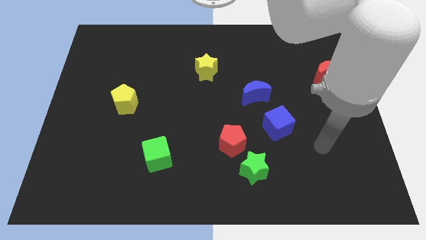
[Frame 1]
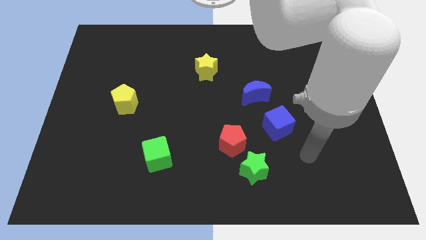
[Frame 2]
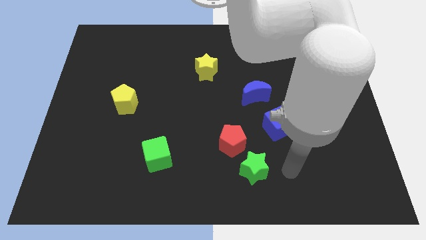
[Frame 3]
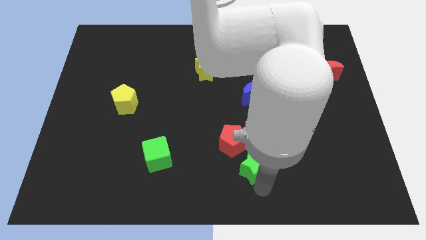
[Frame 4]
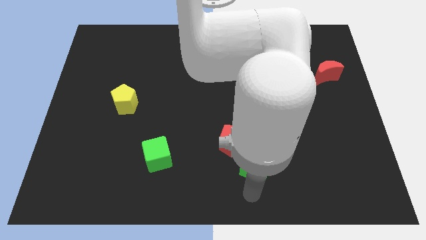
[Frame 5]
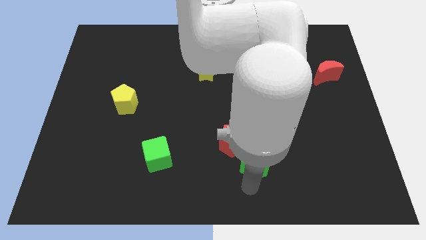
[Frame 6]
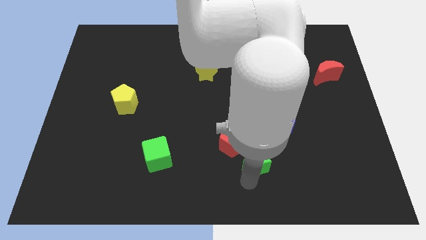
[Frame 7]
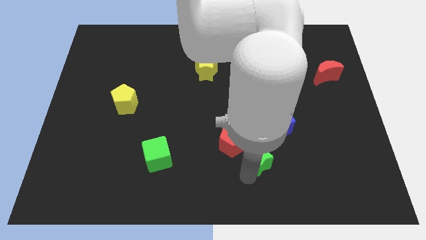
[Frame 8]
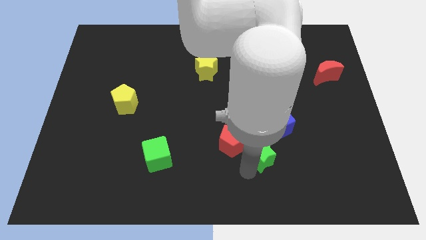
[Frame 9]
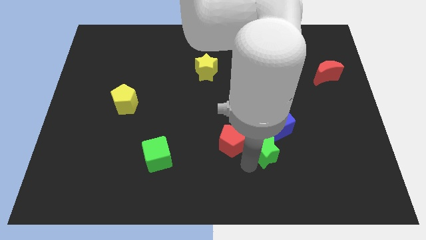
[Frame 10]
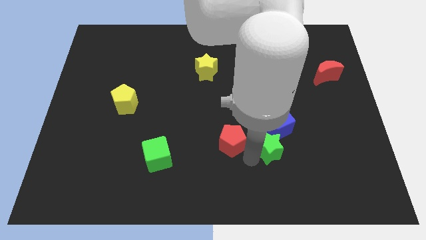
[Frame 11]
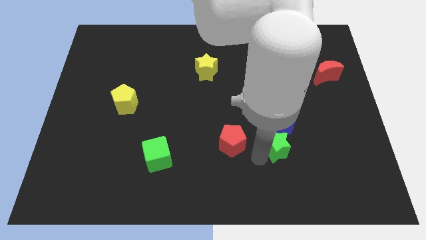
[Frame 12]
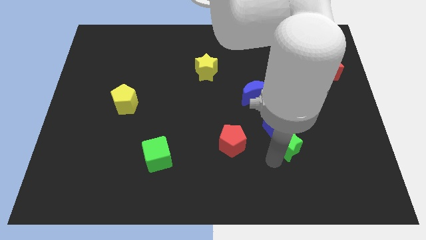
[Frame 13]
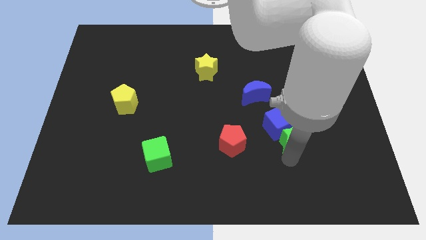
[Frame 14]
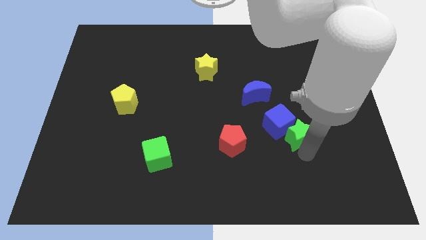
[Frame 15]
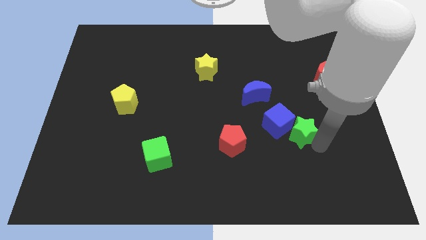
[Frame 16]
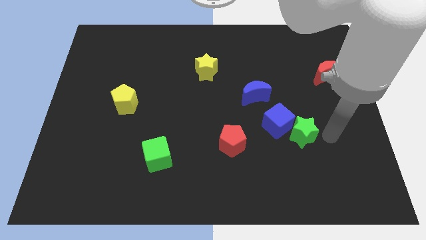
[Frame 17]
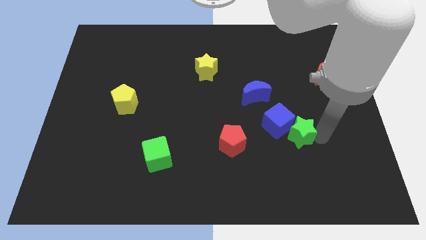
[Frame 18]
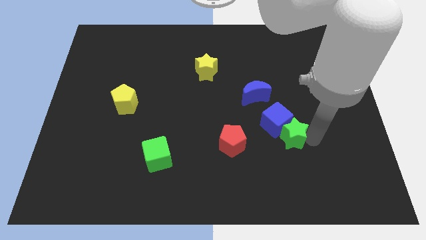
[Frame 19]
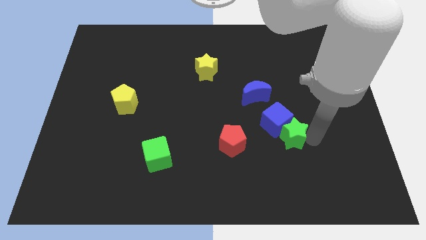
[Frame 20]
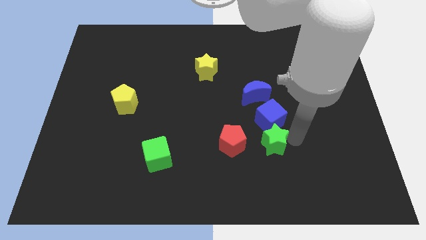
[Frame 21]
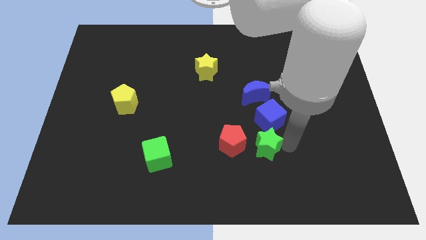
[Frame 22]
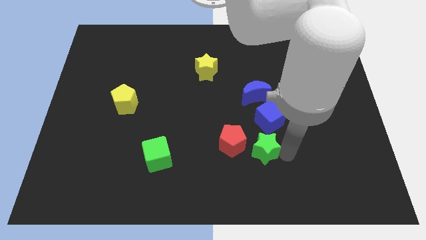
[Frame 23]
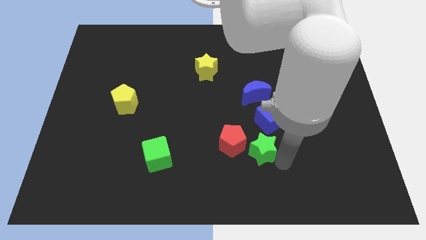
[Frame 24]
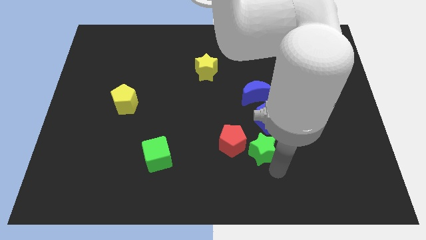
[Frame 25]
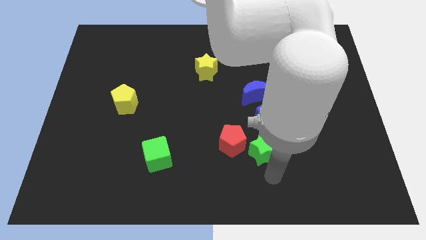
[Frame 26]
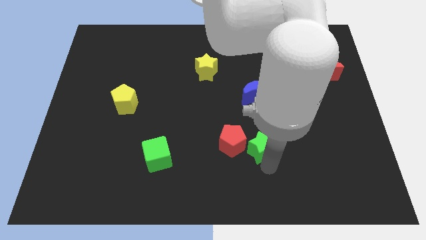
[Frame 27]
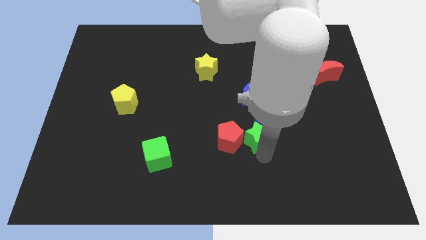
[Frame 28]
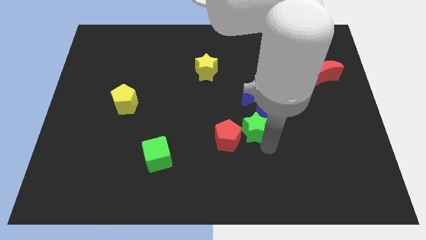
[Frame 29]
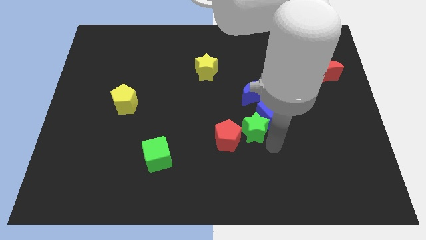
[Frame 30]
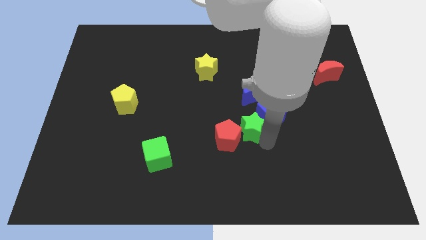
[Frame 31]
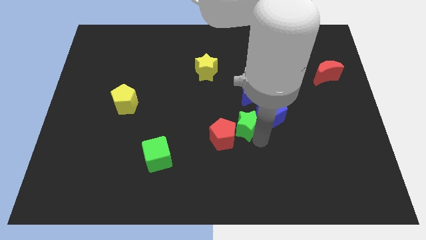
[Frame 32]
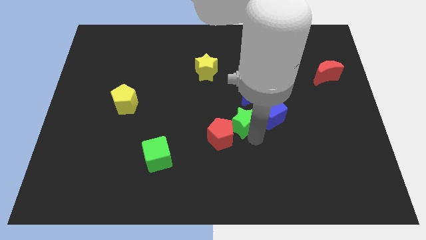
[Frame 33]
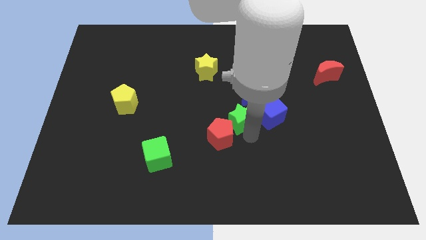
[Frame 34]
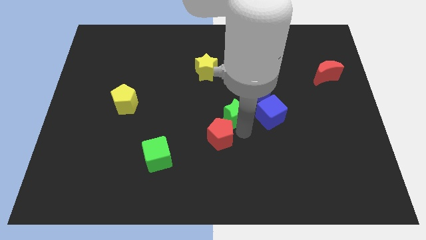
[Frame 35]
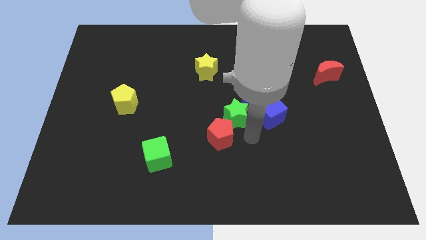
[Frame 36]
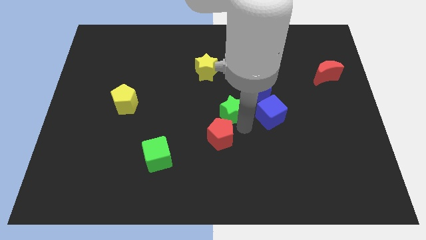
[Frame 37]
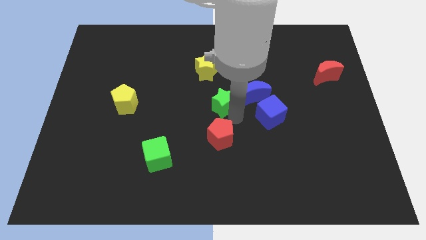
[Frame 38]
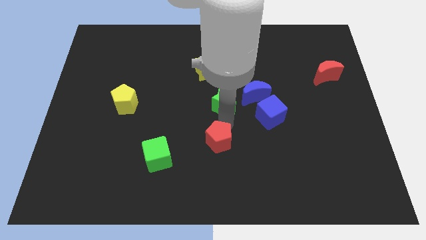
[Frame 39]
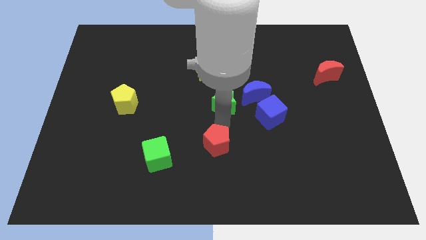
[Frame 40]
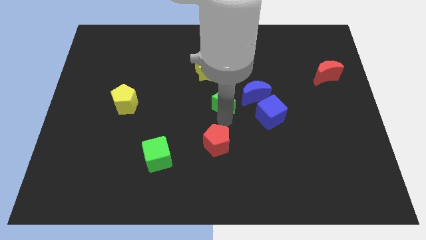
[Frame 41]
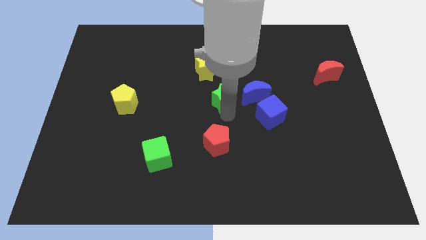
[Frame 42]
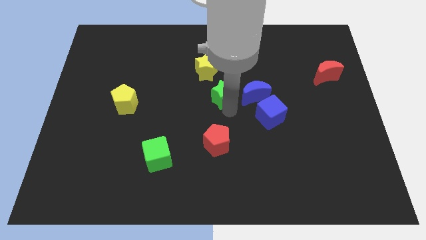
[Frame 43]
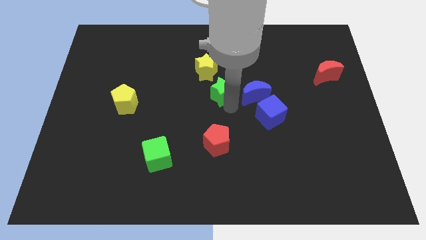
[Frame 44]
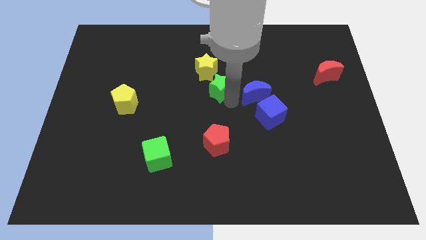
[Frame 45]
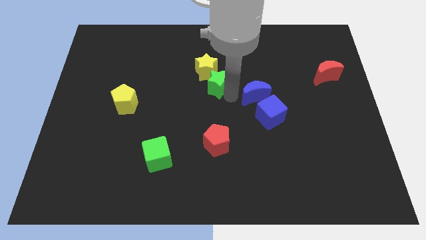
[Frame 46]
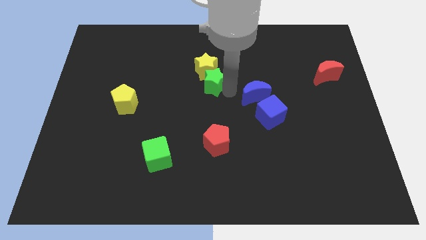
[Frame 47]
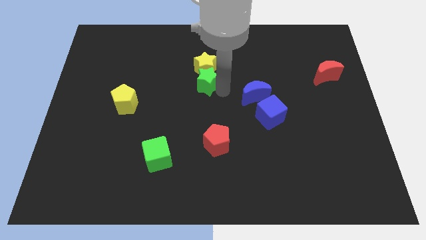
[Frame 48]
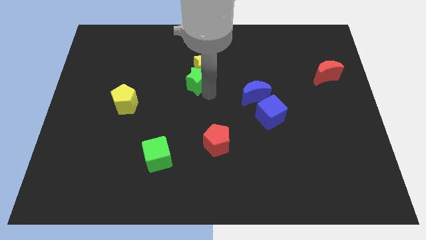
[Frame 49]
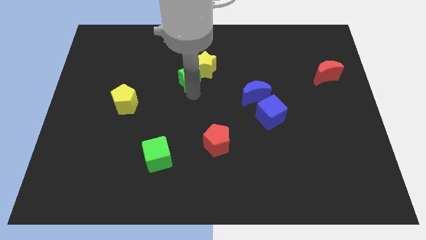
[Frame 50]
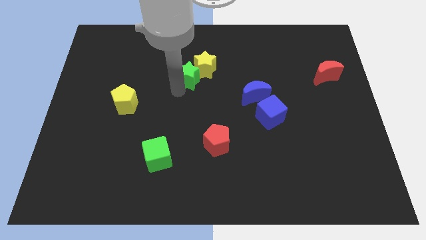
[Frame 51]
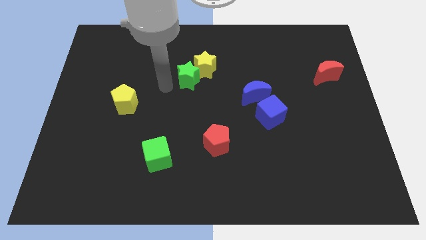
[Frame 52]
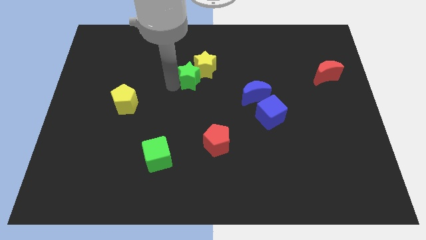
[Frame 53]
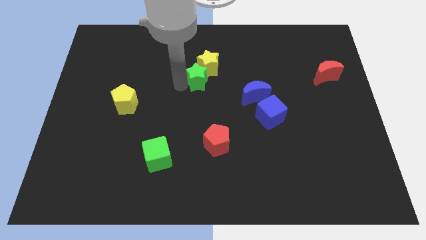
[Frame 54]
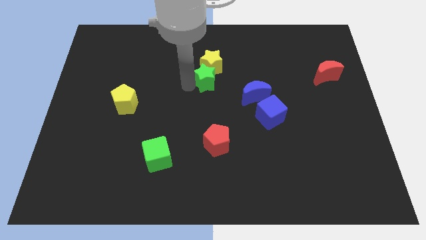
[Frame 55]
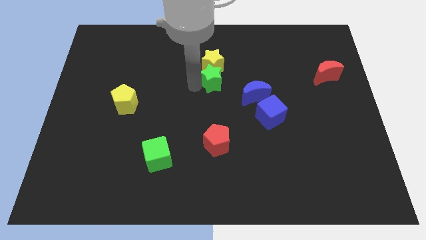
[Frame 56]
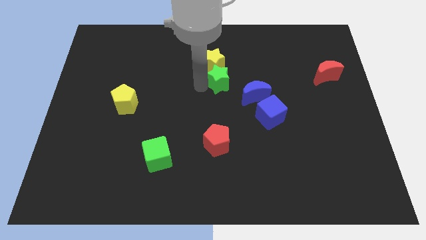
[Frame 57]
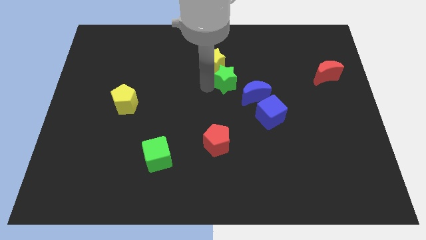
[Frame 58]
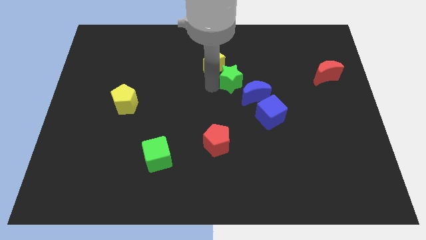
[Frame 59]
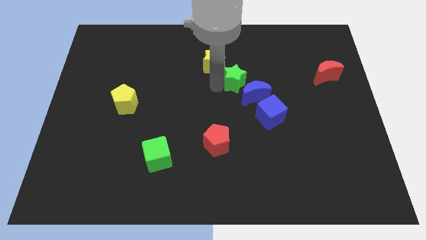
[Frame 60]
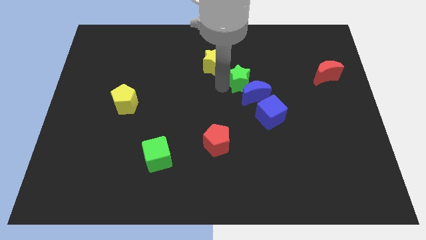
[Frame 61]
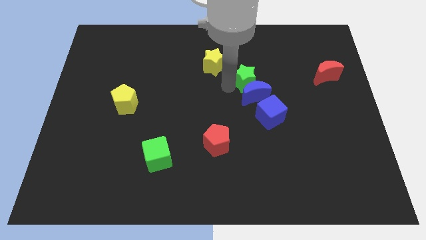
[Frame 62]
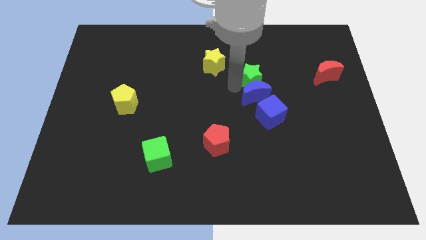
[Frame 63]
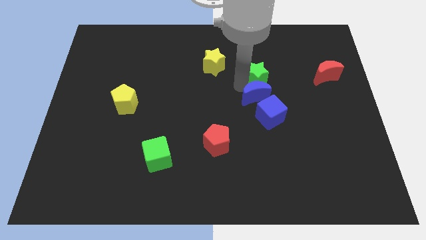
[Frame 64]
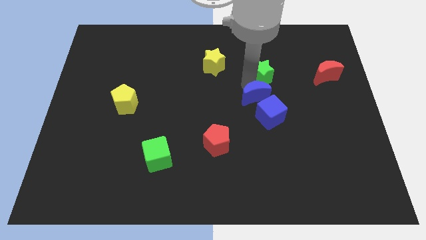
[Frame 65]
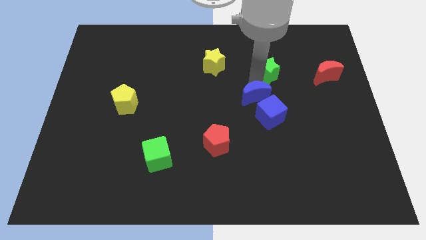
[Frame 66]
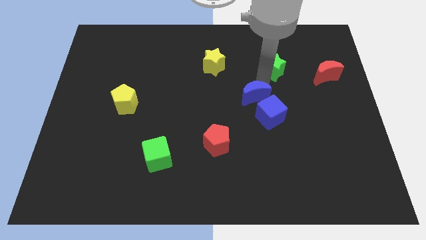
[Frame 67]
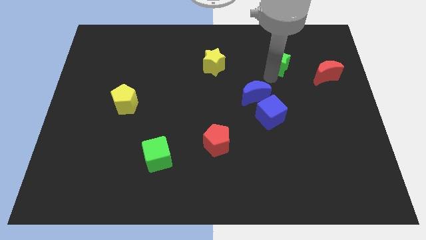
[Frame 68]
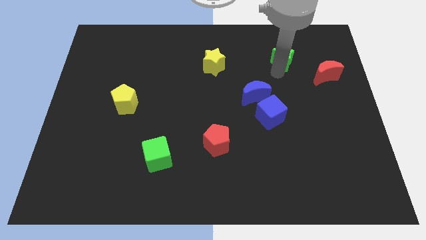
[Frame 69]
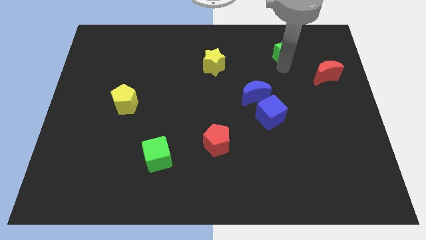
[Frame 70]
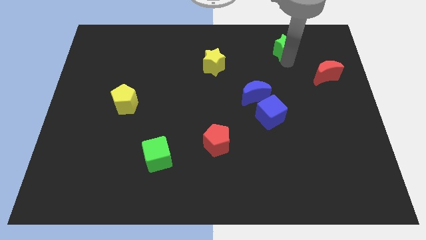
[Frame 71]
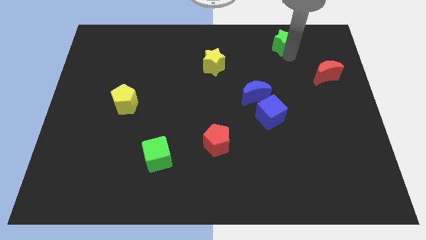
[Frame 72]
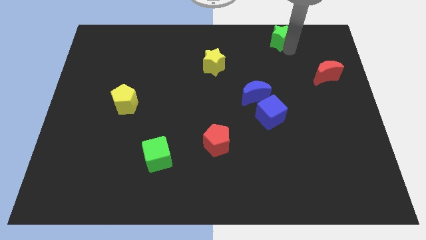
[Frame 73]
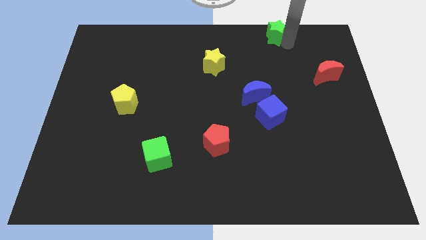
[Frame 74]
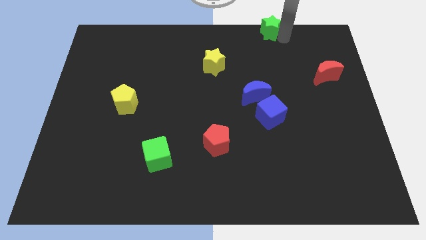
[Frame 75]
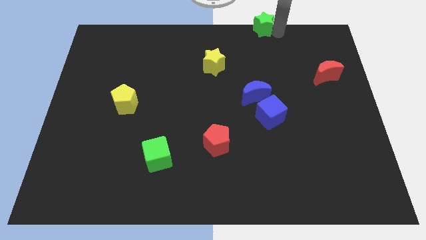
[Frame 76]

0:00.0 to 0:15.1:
move the green star to the top side
